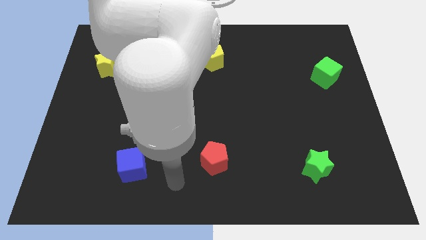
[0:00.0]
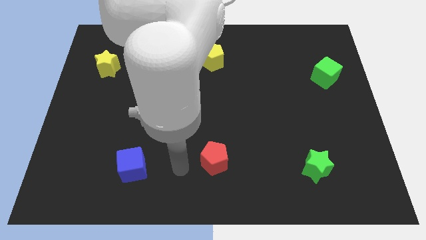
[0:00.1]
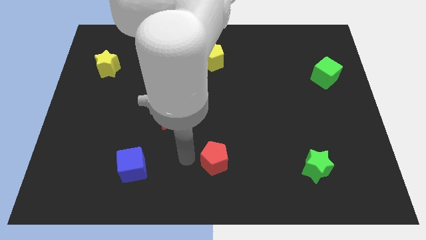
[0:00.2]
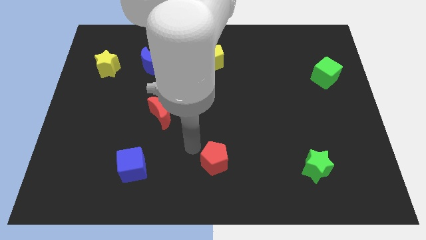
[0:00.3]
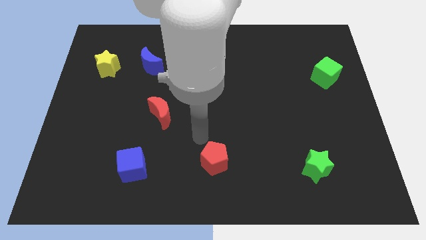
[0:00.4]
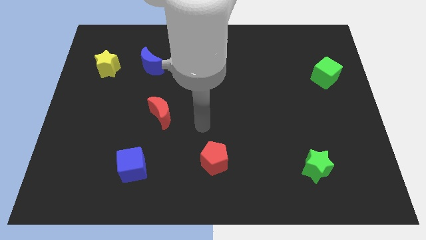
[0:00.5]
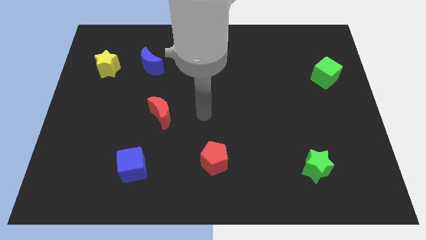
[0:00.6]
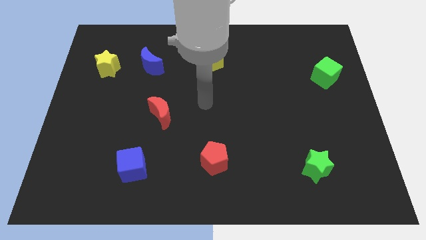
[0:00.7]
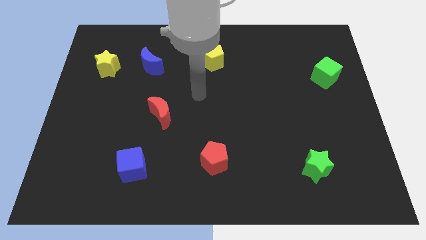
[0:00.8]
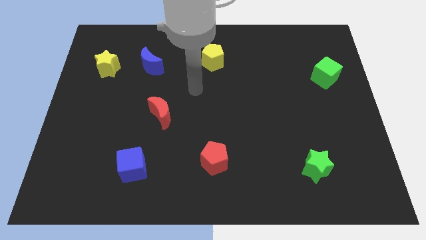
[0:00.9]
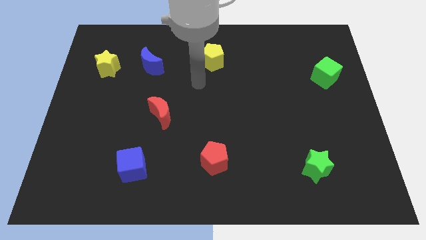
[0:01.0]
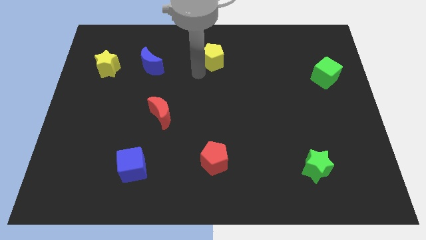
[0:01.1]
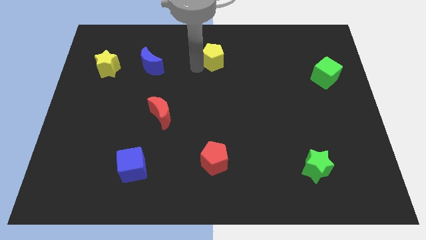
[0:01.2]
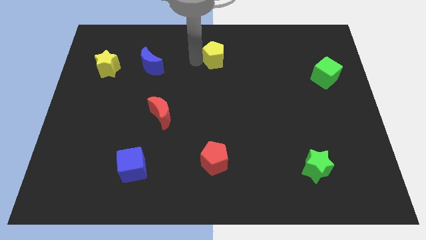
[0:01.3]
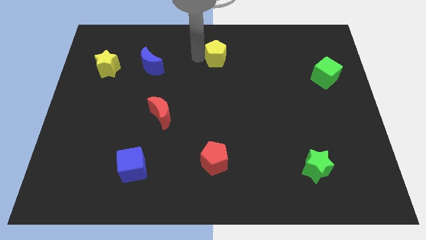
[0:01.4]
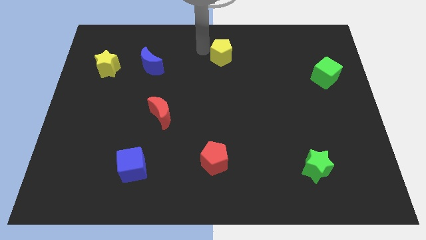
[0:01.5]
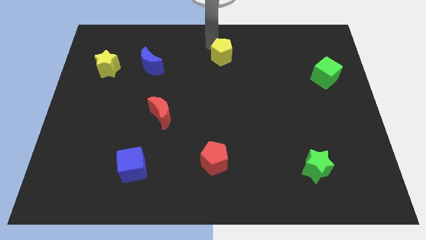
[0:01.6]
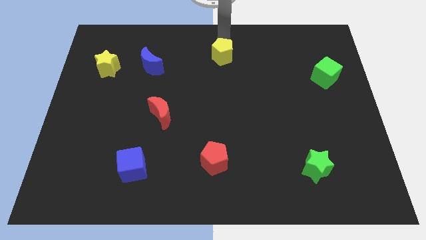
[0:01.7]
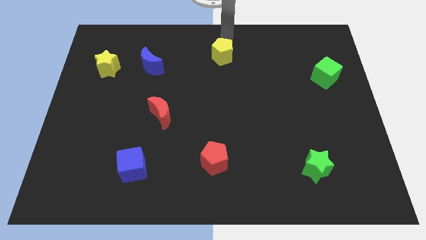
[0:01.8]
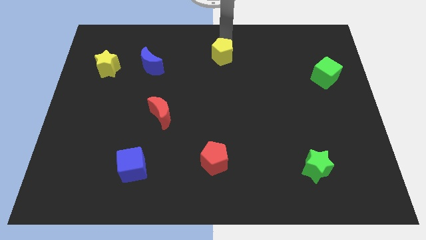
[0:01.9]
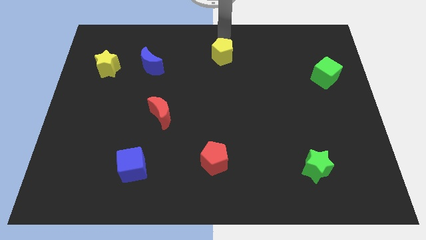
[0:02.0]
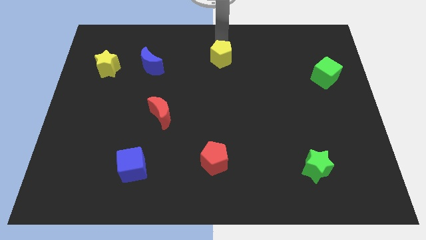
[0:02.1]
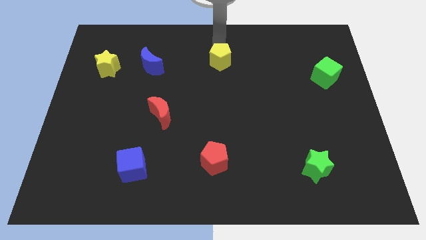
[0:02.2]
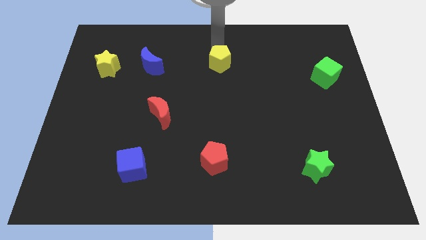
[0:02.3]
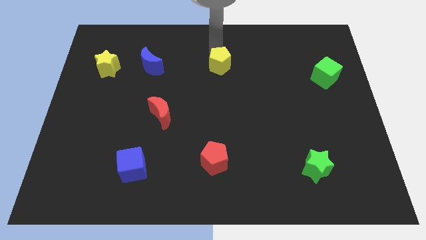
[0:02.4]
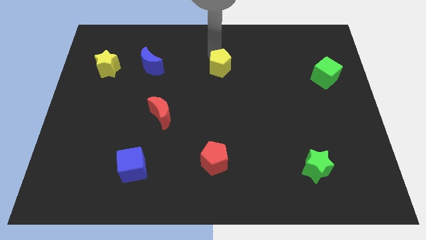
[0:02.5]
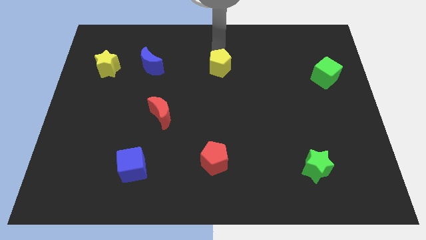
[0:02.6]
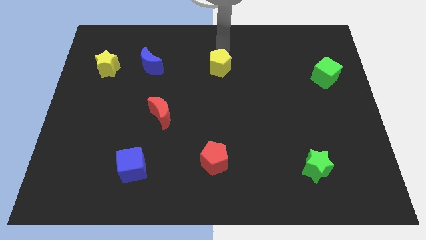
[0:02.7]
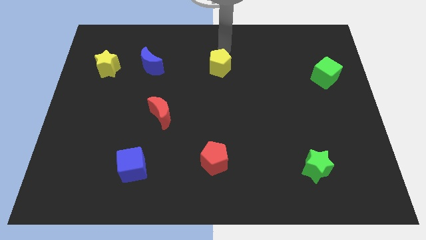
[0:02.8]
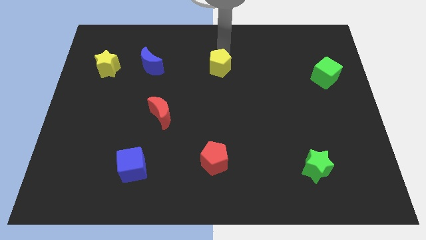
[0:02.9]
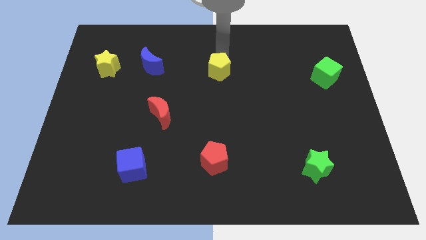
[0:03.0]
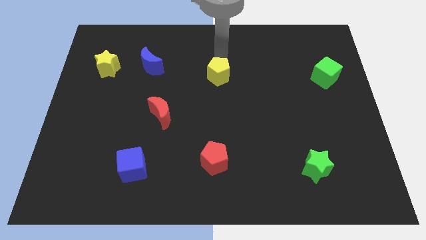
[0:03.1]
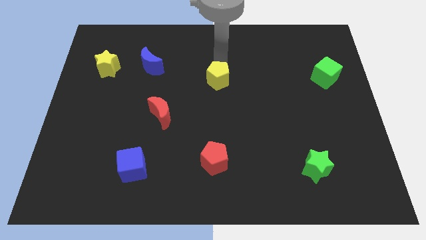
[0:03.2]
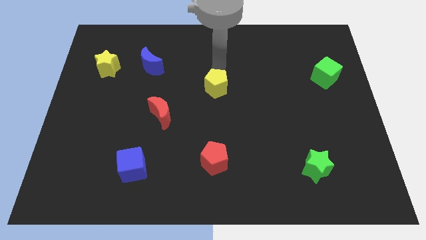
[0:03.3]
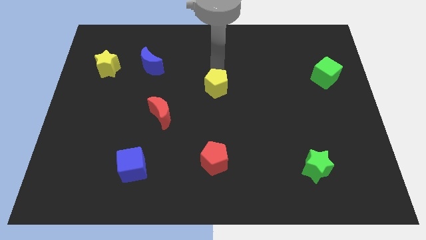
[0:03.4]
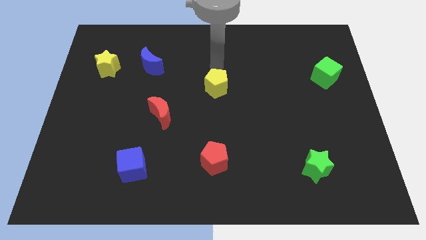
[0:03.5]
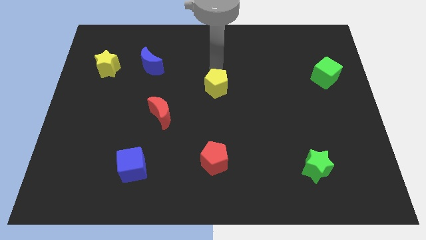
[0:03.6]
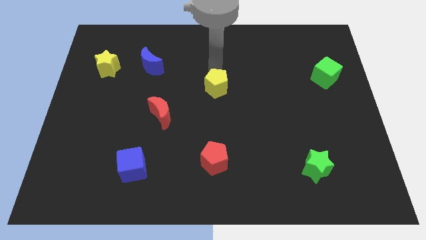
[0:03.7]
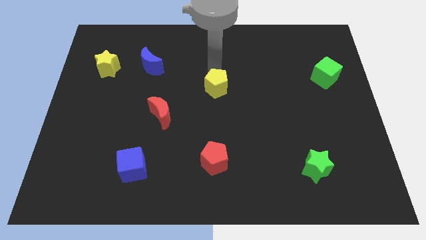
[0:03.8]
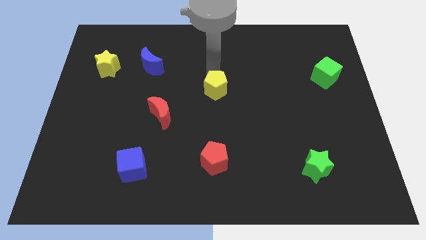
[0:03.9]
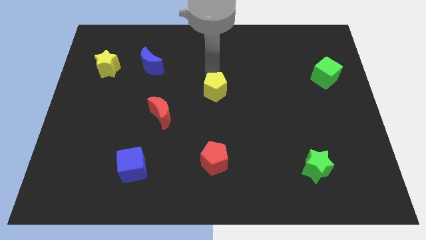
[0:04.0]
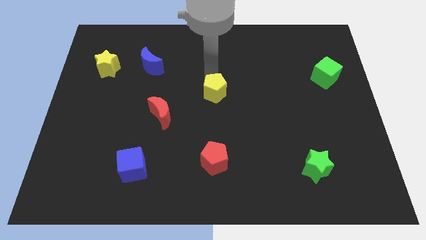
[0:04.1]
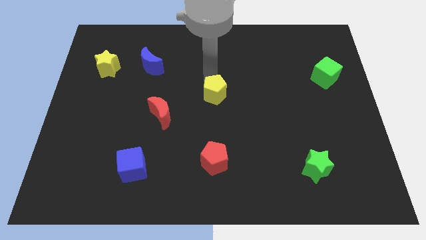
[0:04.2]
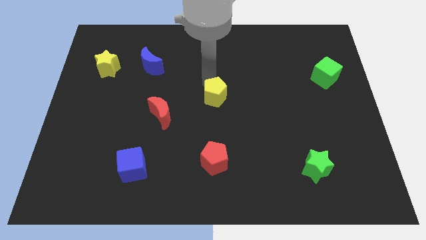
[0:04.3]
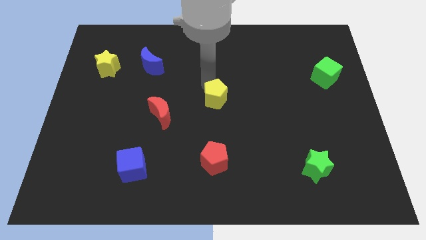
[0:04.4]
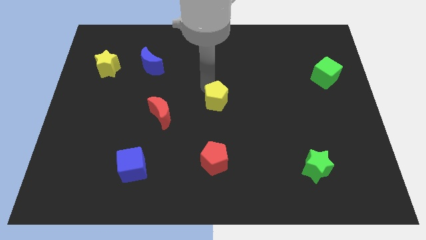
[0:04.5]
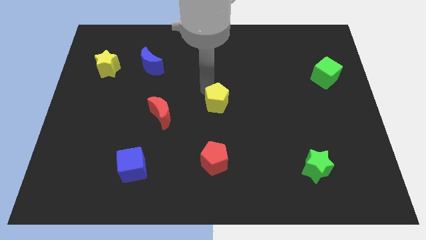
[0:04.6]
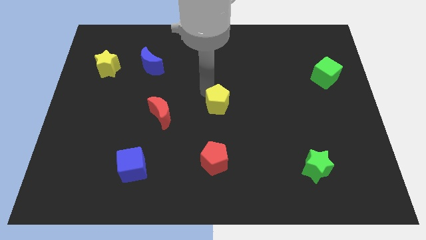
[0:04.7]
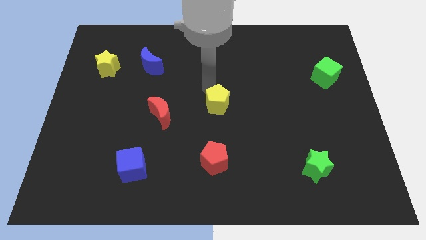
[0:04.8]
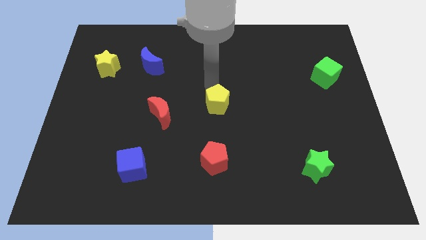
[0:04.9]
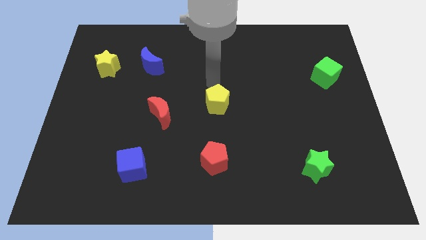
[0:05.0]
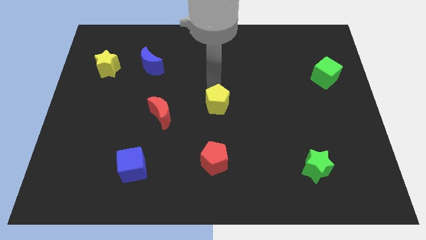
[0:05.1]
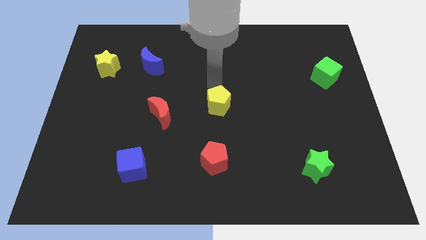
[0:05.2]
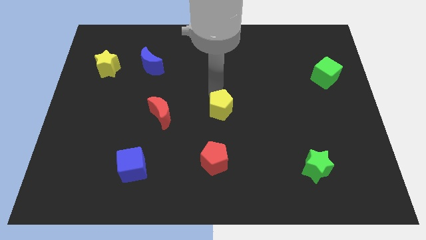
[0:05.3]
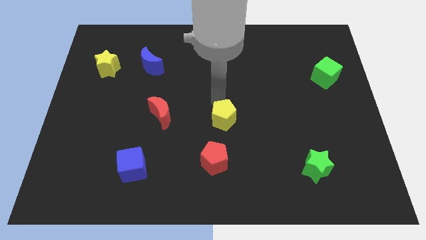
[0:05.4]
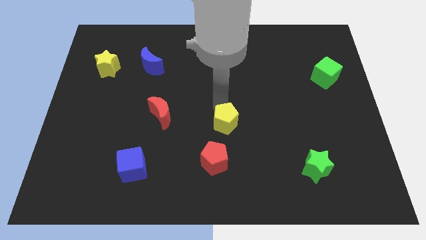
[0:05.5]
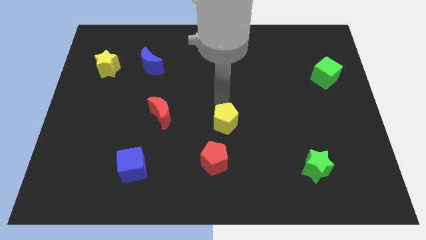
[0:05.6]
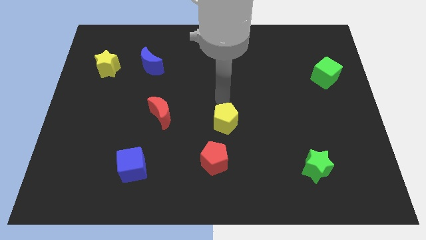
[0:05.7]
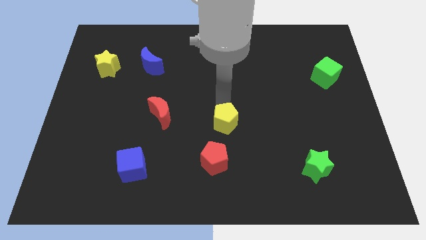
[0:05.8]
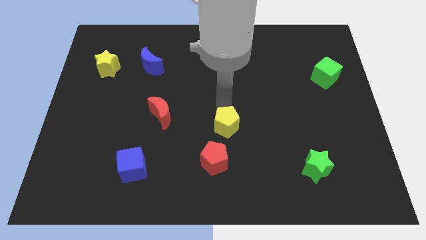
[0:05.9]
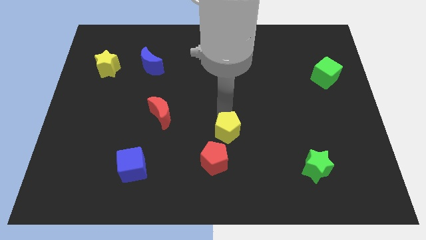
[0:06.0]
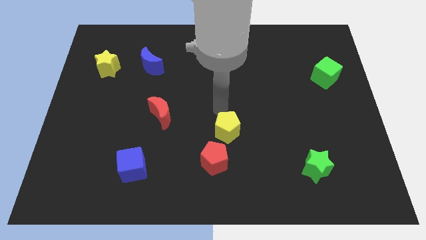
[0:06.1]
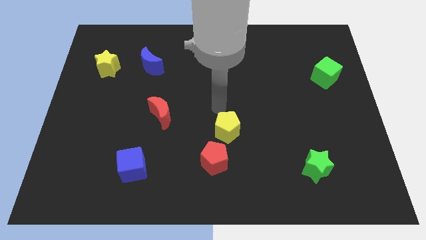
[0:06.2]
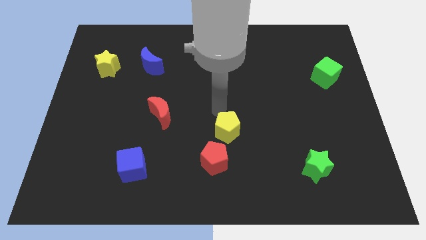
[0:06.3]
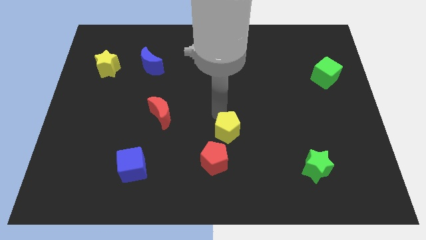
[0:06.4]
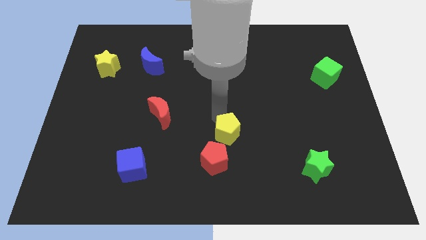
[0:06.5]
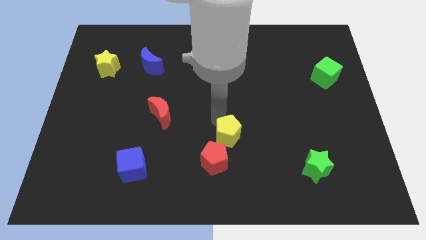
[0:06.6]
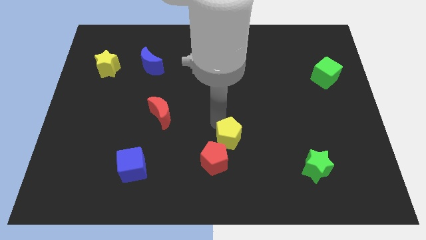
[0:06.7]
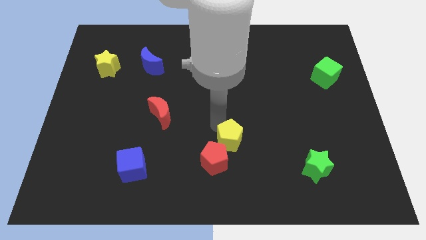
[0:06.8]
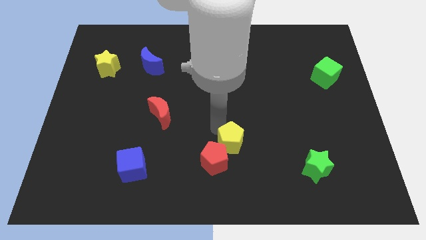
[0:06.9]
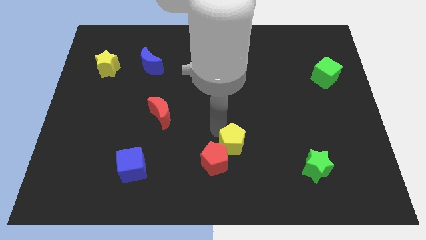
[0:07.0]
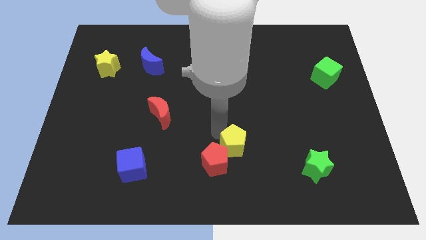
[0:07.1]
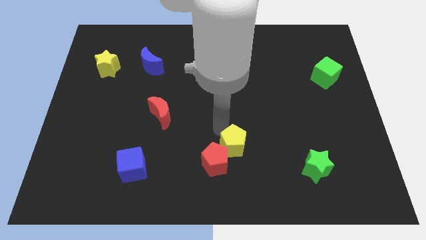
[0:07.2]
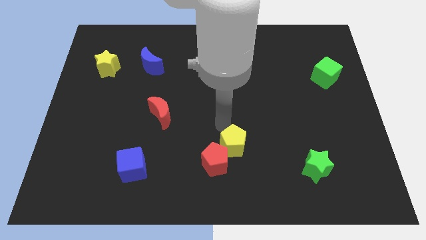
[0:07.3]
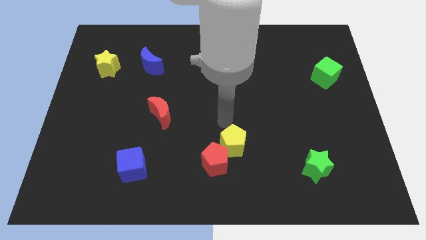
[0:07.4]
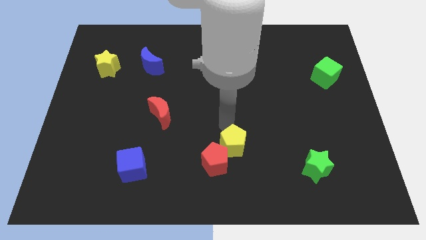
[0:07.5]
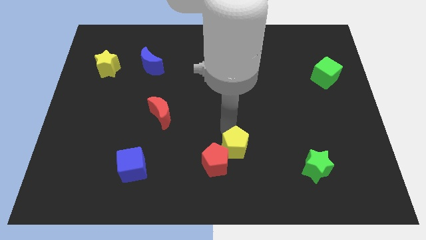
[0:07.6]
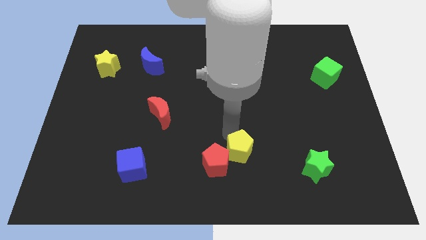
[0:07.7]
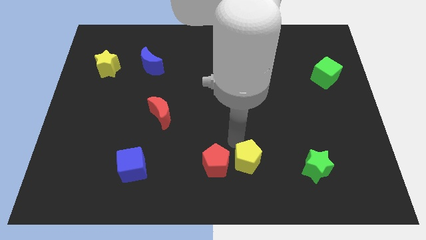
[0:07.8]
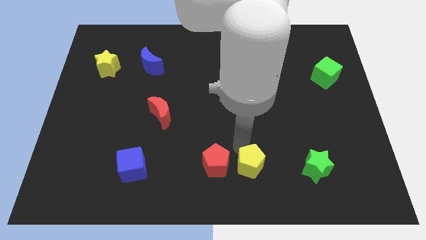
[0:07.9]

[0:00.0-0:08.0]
push the yellow pentagon to the bottom right of the red pentagon
